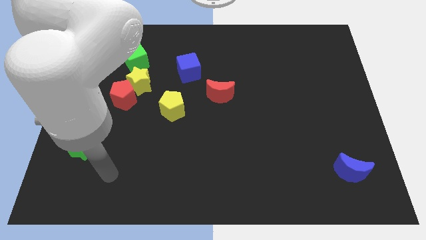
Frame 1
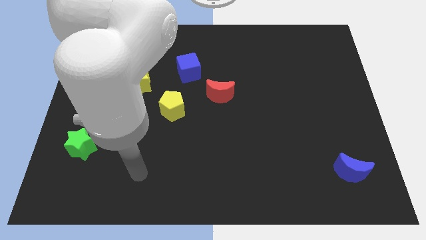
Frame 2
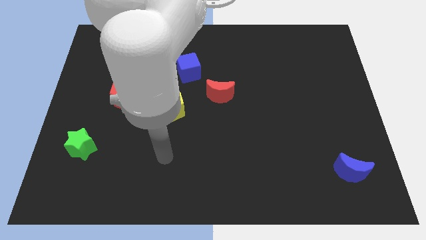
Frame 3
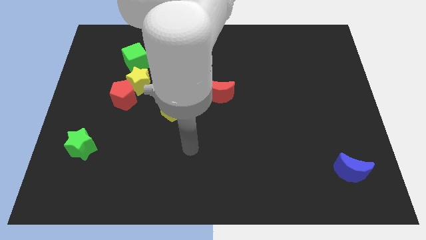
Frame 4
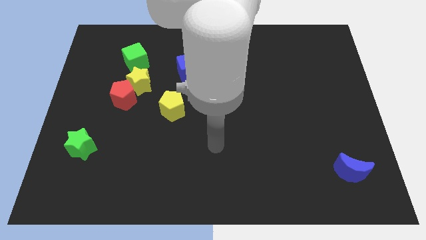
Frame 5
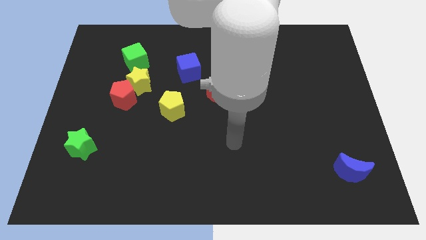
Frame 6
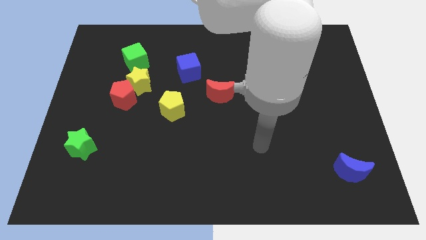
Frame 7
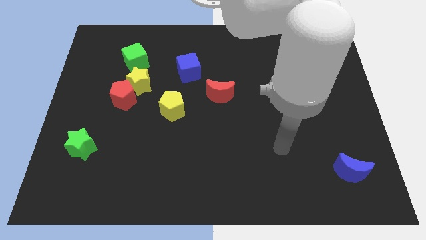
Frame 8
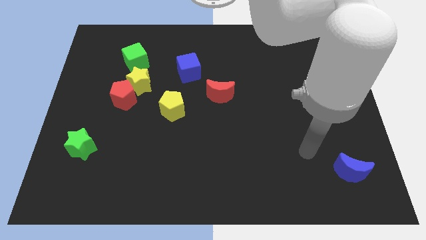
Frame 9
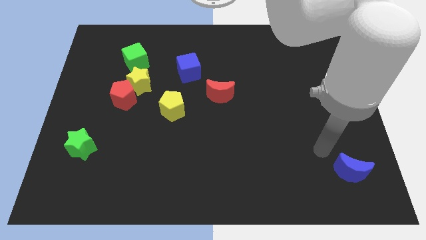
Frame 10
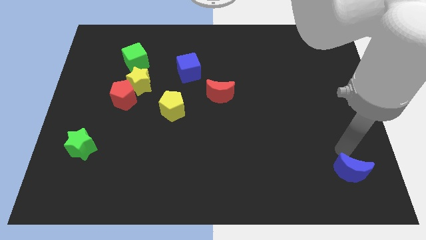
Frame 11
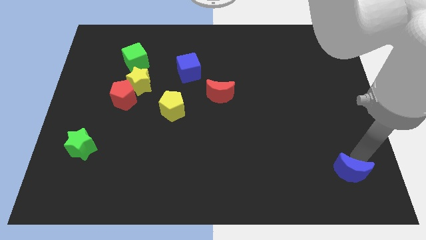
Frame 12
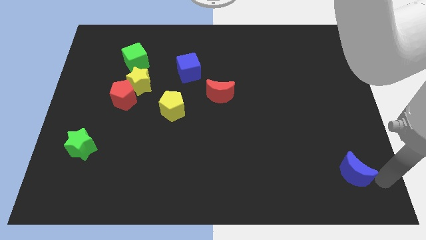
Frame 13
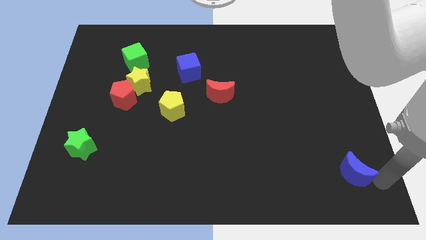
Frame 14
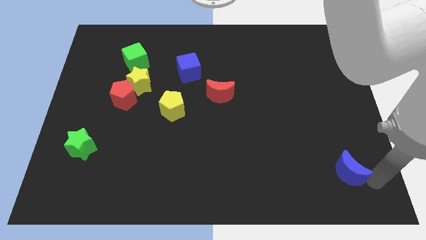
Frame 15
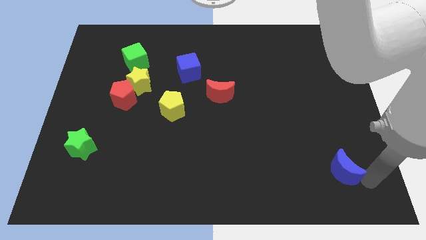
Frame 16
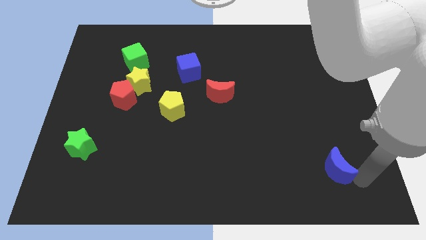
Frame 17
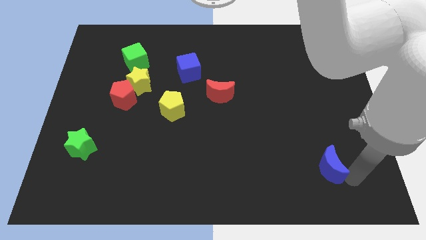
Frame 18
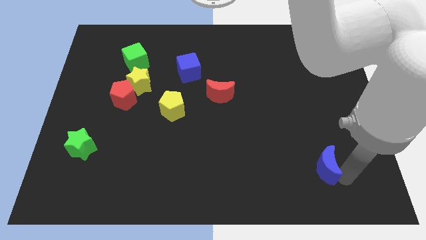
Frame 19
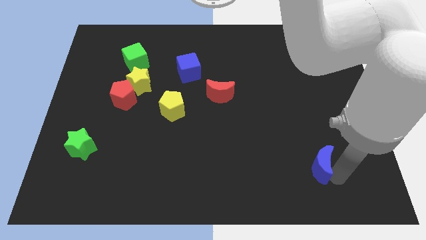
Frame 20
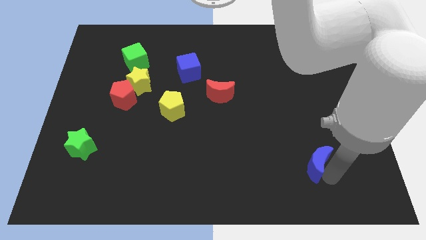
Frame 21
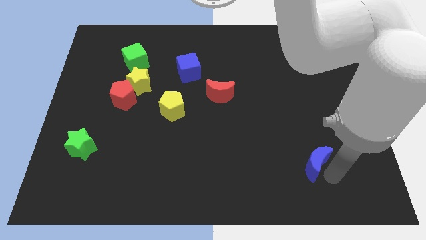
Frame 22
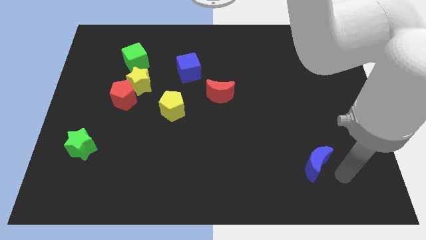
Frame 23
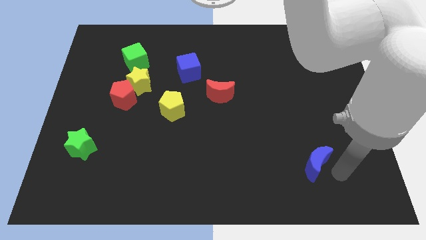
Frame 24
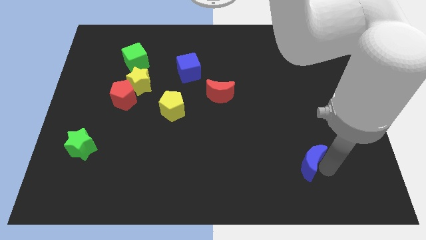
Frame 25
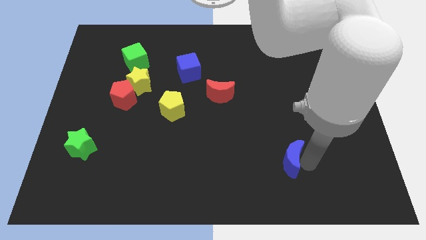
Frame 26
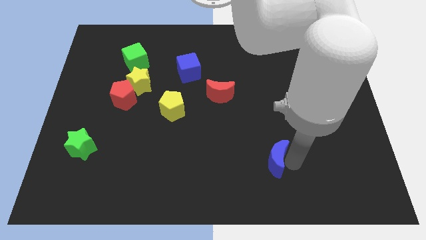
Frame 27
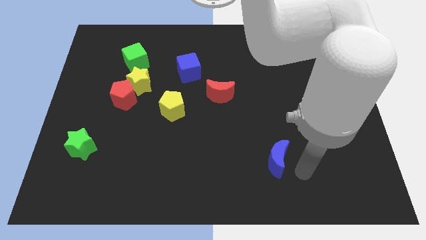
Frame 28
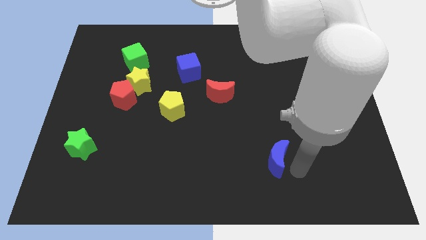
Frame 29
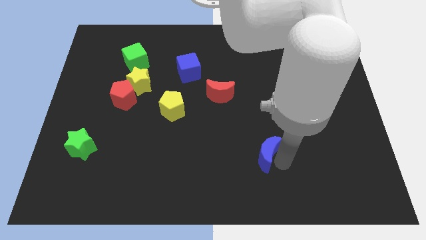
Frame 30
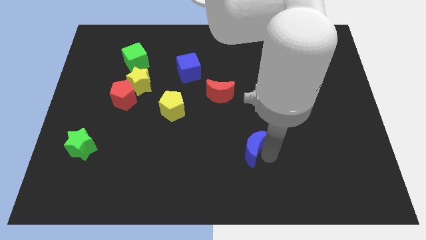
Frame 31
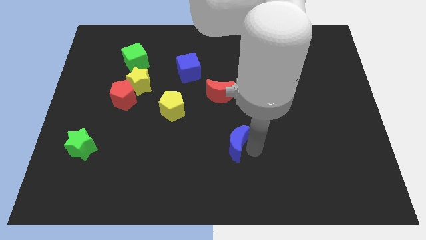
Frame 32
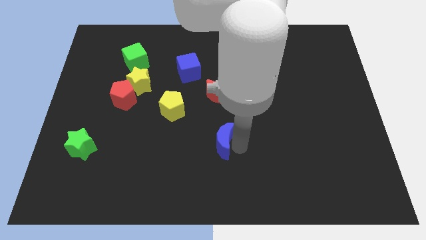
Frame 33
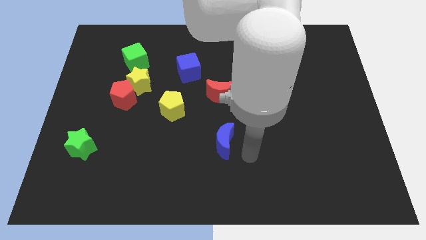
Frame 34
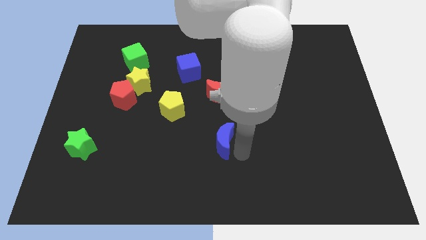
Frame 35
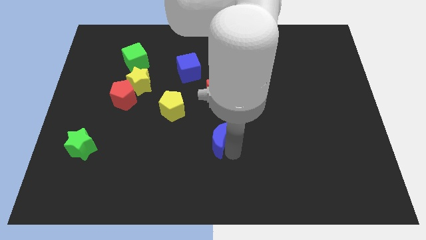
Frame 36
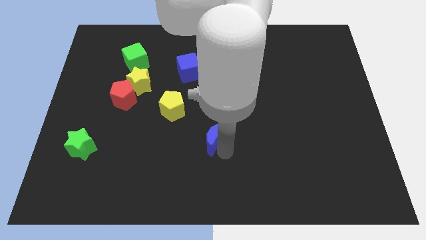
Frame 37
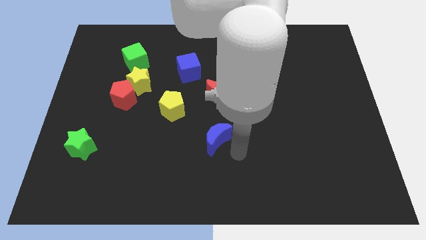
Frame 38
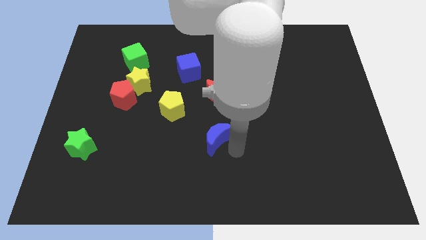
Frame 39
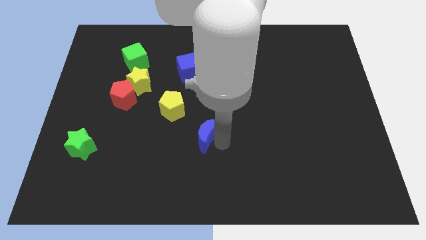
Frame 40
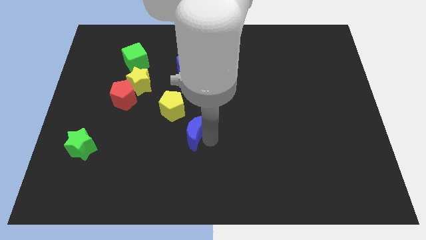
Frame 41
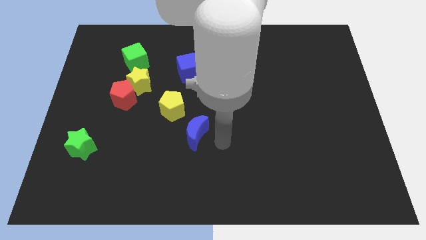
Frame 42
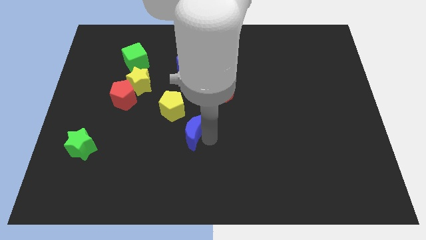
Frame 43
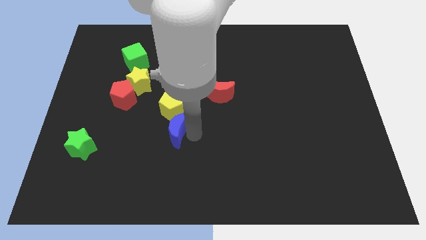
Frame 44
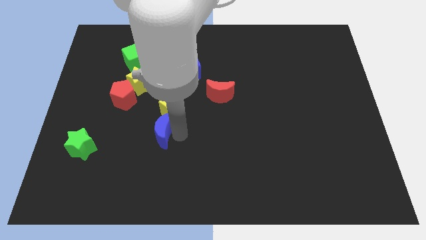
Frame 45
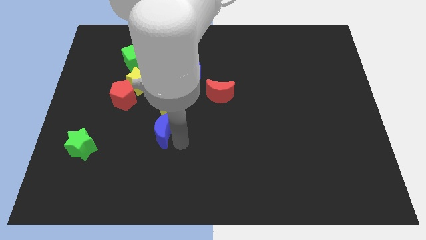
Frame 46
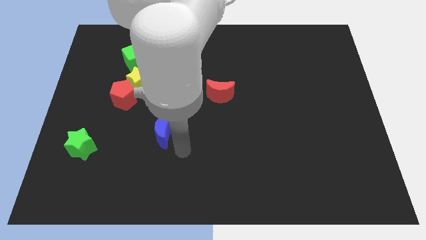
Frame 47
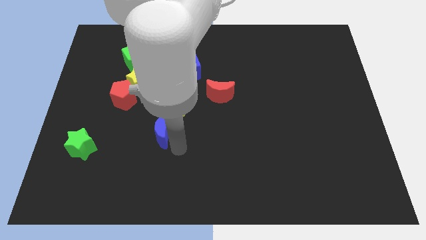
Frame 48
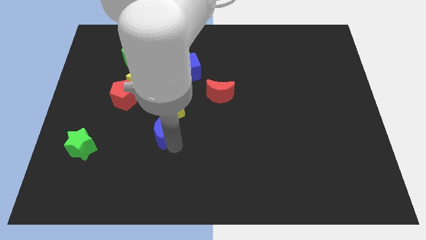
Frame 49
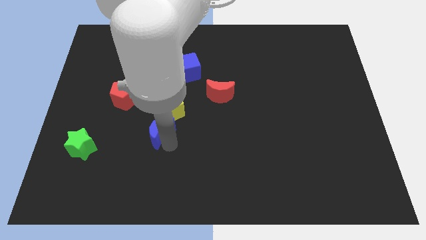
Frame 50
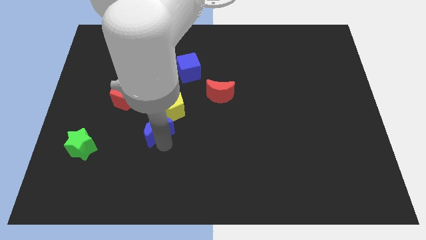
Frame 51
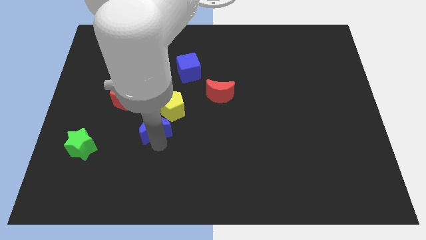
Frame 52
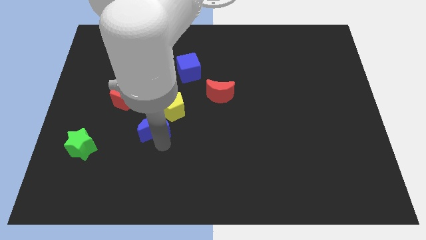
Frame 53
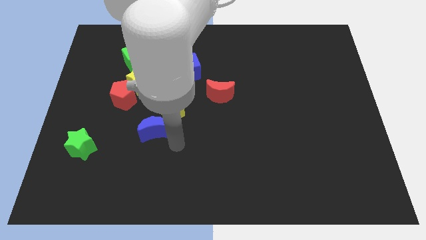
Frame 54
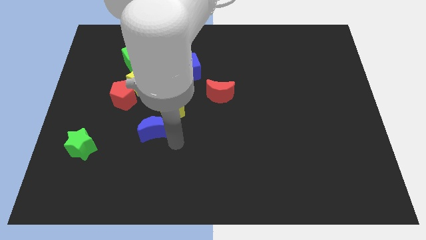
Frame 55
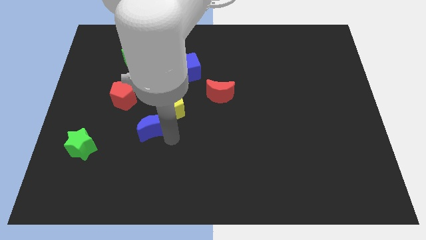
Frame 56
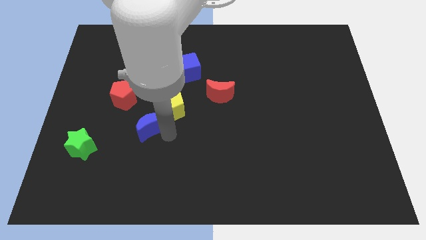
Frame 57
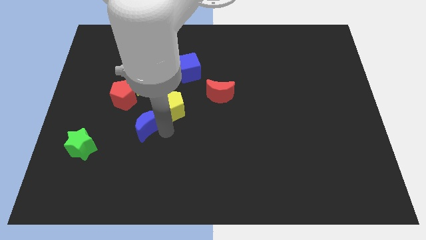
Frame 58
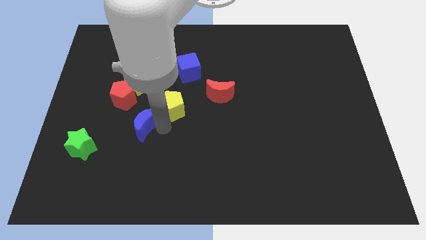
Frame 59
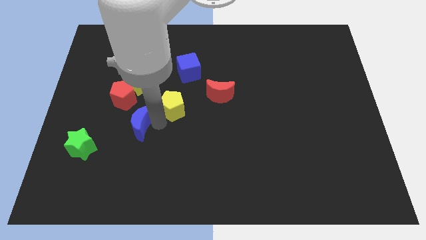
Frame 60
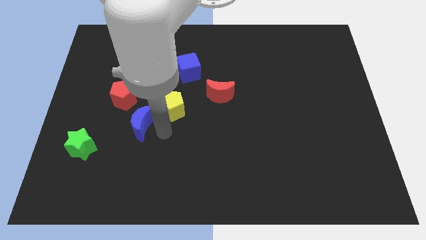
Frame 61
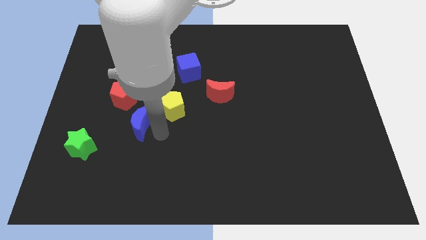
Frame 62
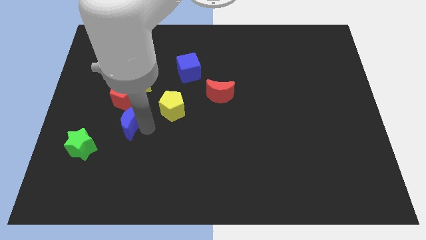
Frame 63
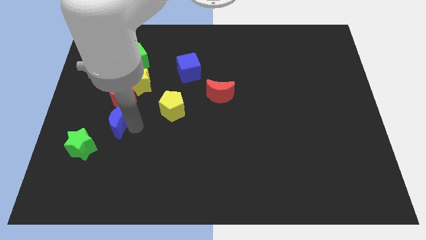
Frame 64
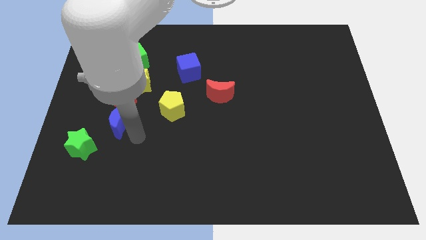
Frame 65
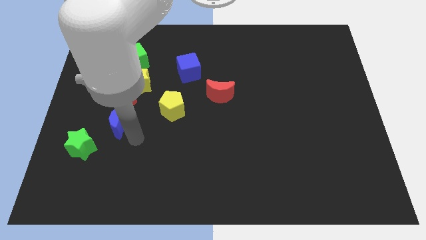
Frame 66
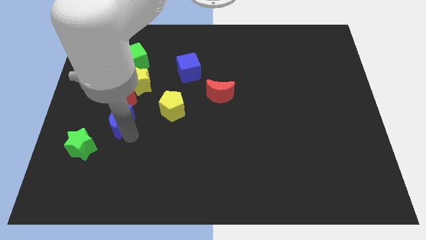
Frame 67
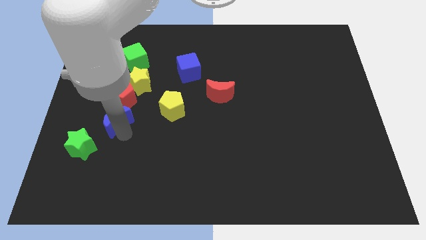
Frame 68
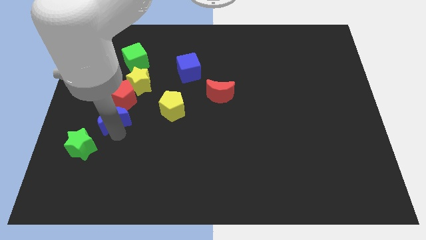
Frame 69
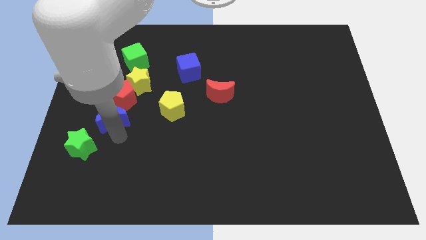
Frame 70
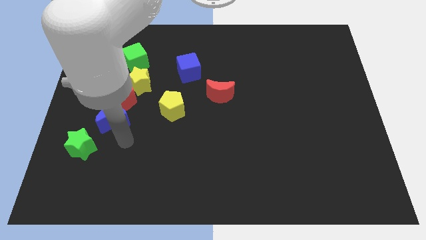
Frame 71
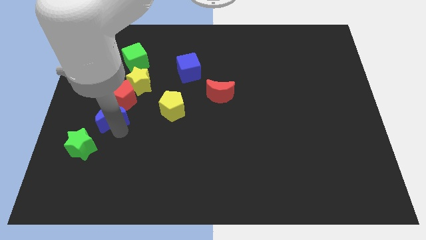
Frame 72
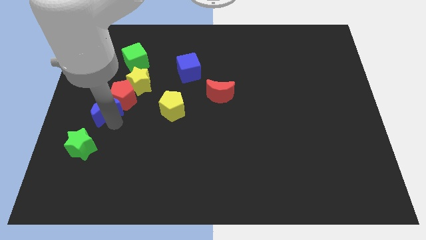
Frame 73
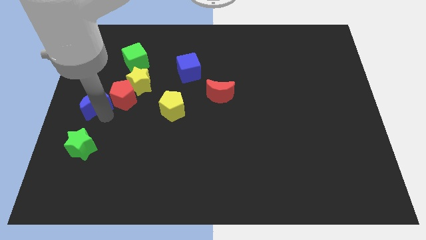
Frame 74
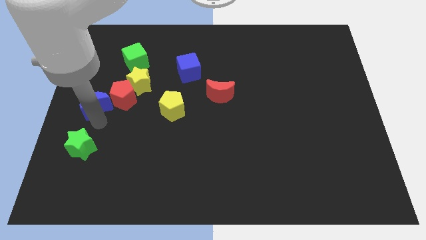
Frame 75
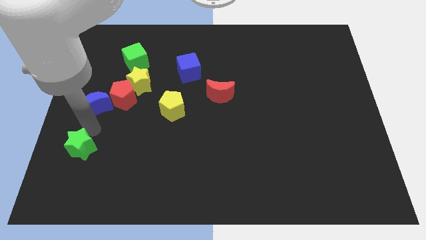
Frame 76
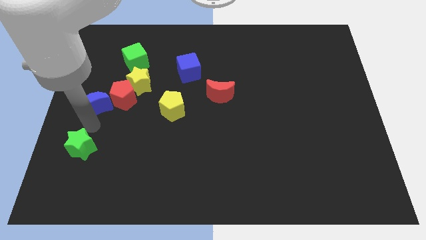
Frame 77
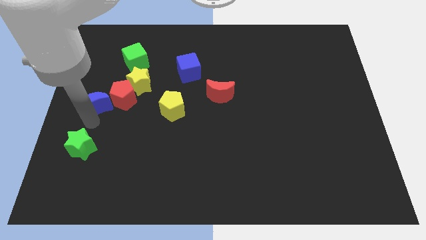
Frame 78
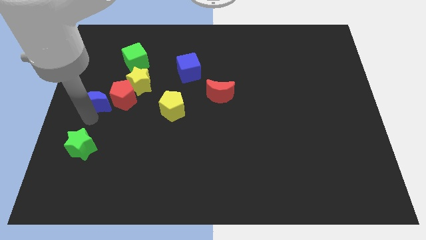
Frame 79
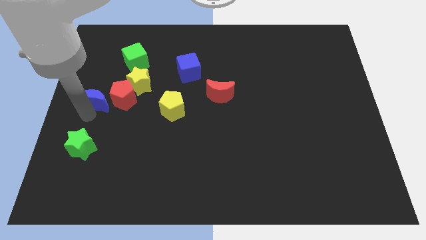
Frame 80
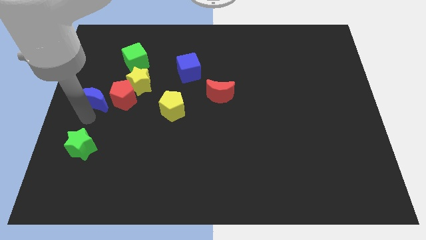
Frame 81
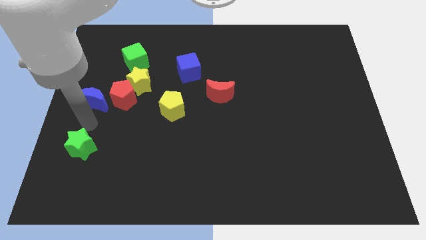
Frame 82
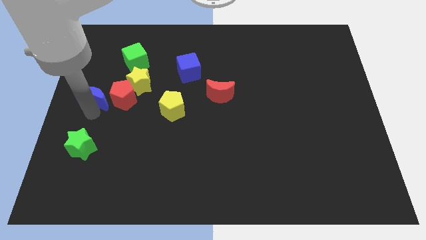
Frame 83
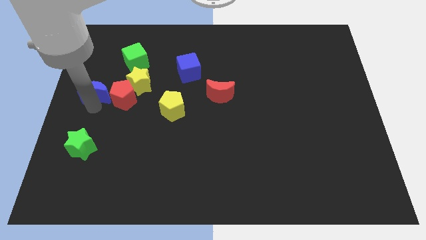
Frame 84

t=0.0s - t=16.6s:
push the blue moon to the left side of the yellow star
